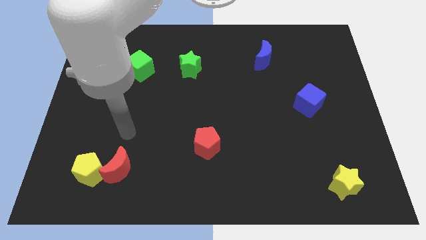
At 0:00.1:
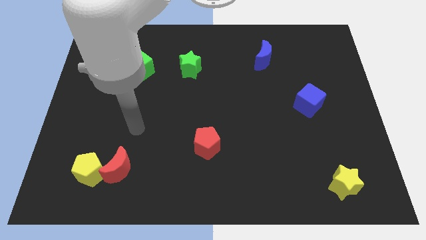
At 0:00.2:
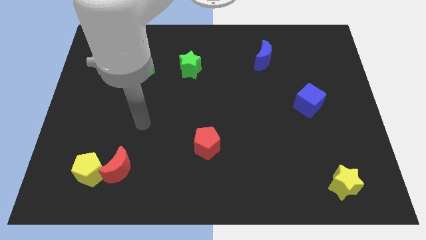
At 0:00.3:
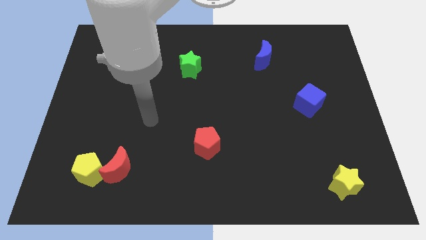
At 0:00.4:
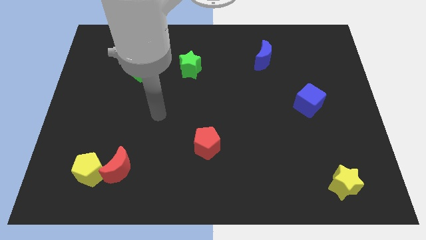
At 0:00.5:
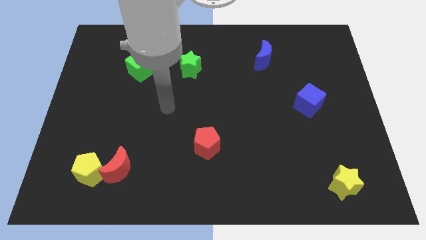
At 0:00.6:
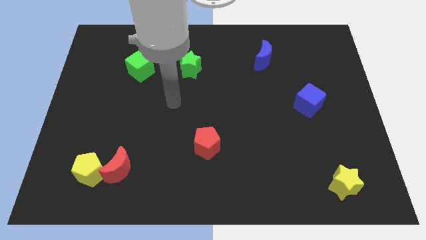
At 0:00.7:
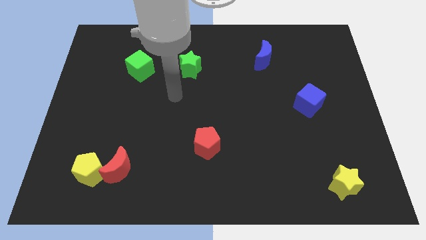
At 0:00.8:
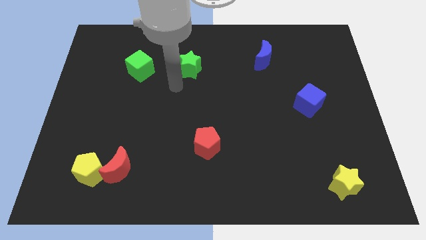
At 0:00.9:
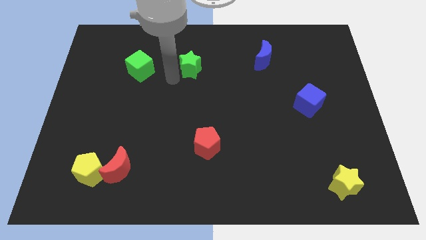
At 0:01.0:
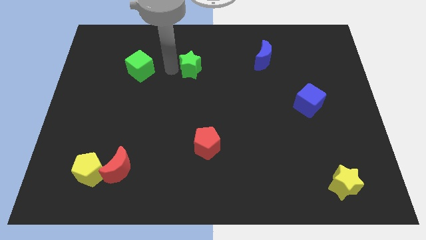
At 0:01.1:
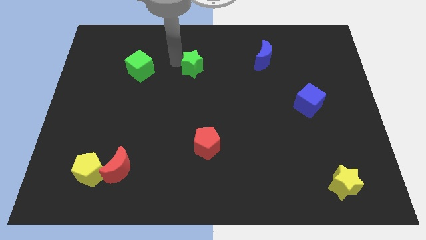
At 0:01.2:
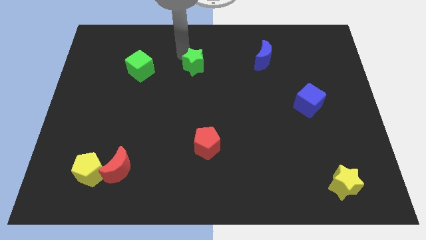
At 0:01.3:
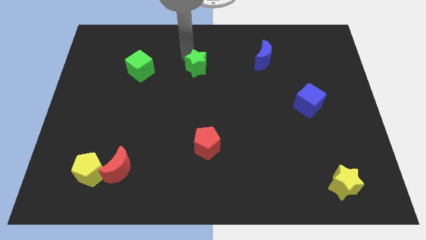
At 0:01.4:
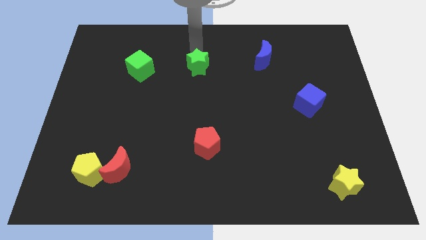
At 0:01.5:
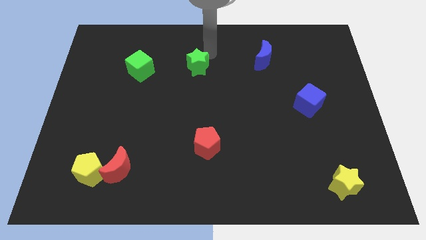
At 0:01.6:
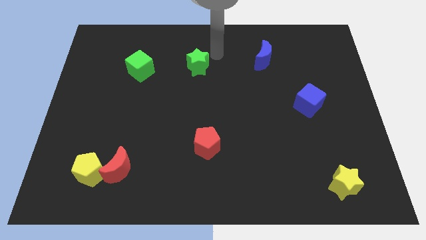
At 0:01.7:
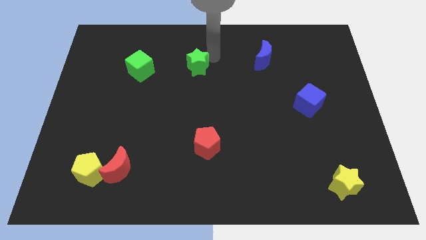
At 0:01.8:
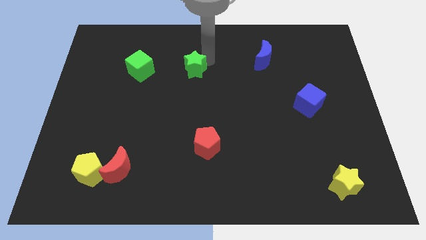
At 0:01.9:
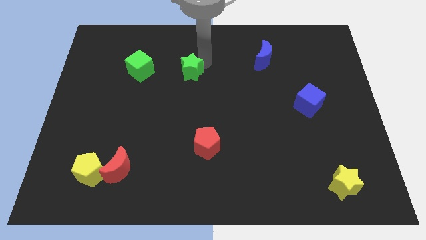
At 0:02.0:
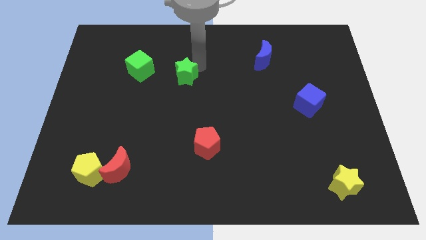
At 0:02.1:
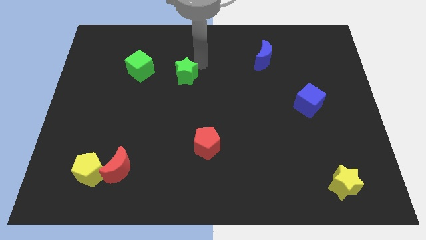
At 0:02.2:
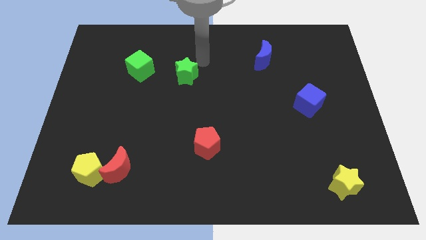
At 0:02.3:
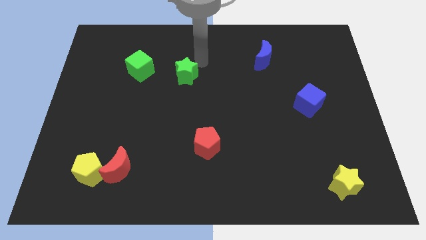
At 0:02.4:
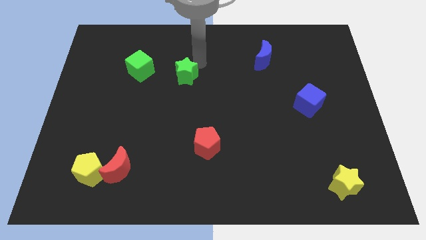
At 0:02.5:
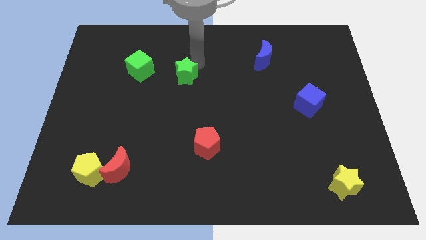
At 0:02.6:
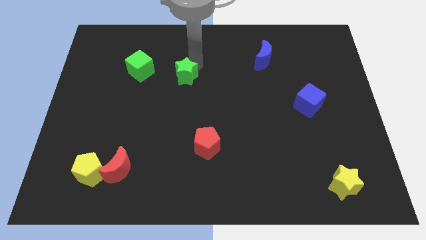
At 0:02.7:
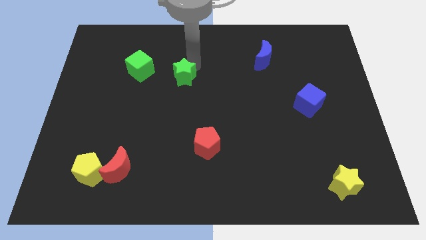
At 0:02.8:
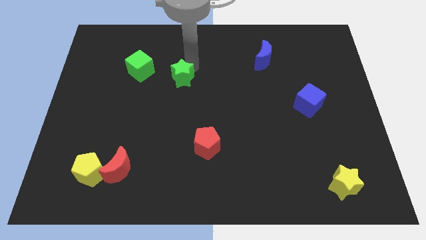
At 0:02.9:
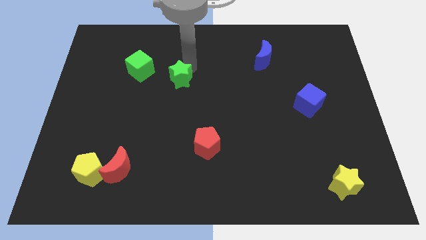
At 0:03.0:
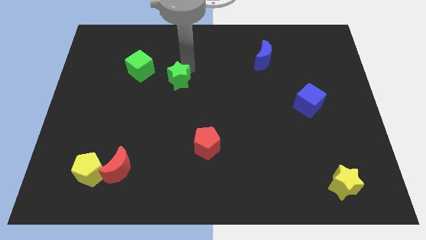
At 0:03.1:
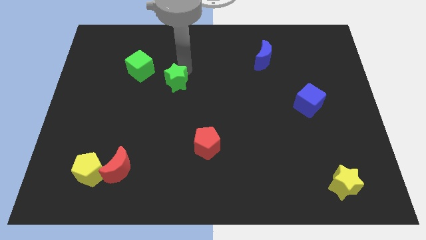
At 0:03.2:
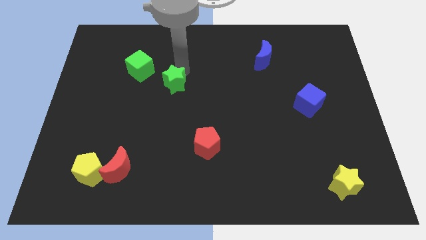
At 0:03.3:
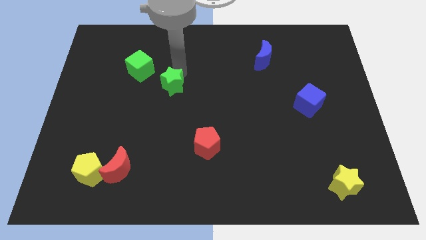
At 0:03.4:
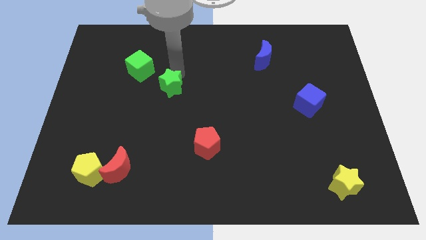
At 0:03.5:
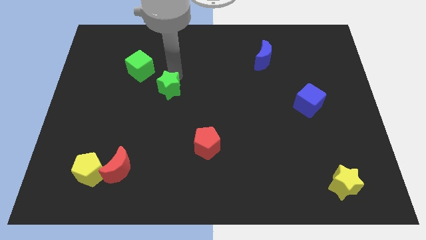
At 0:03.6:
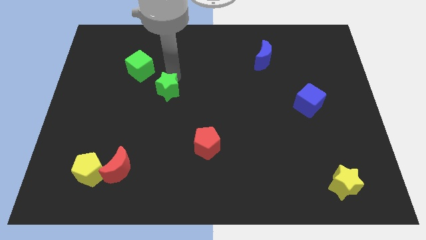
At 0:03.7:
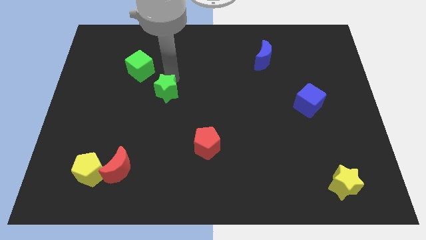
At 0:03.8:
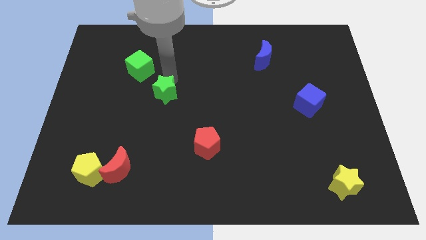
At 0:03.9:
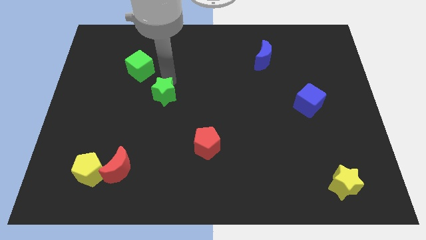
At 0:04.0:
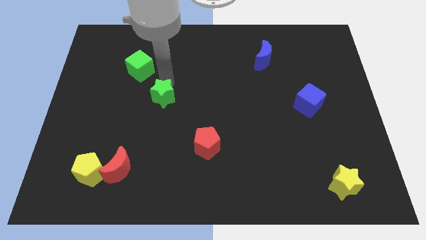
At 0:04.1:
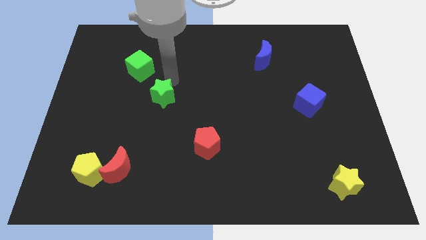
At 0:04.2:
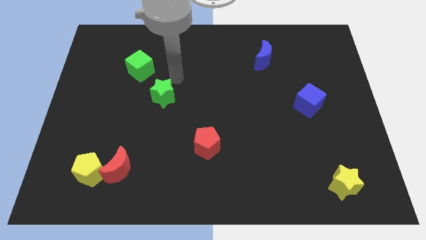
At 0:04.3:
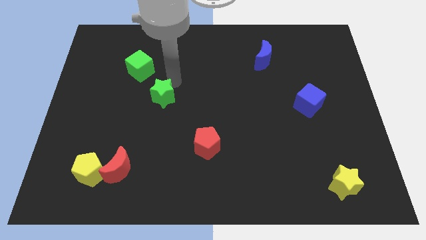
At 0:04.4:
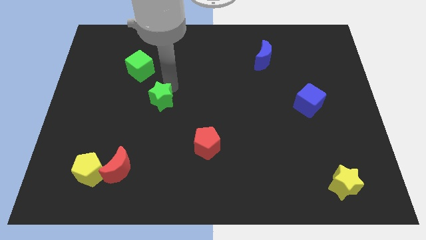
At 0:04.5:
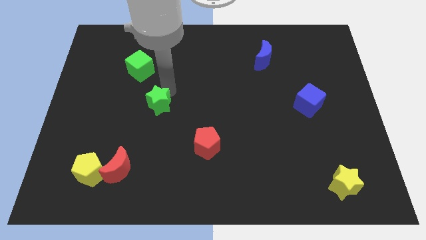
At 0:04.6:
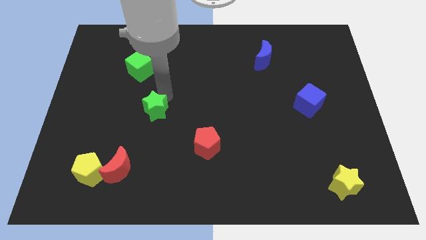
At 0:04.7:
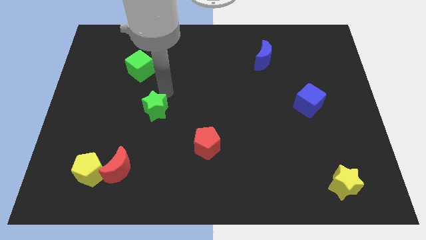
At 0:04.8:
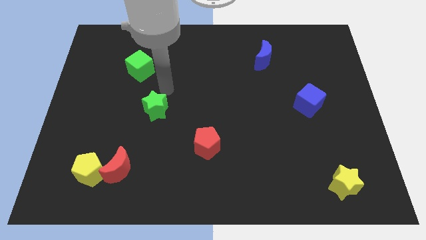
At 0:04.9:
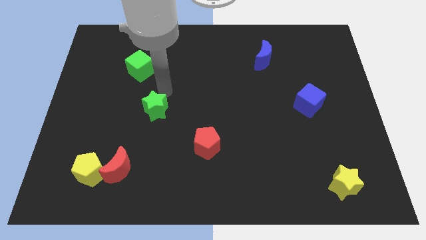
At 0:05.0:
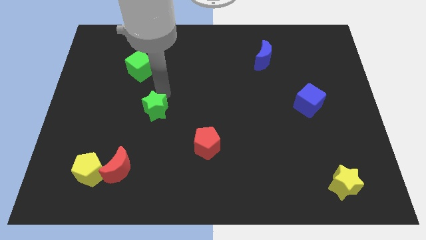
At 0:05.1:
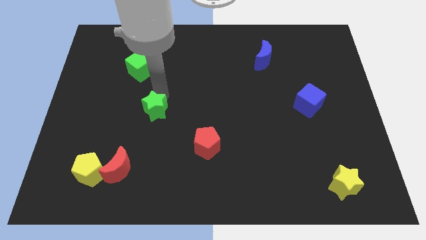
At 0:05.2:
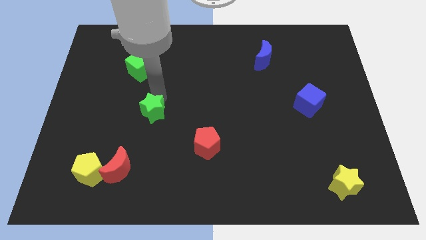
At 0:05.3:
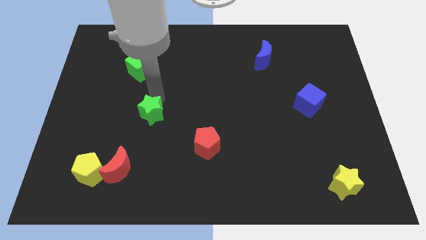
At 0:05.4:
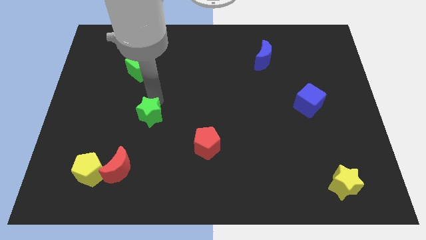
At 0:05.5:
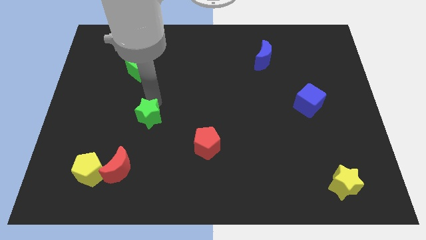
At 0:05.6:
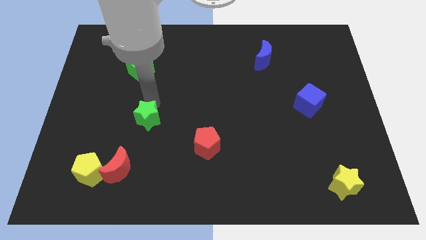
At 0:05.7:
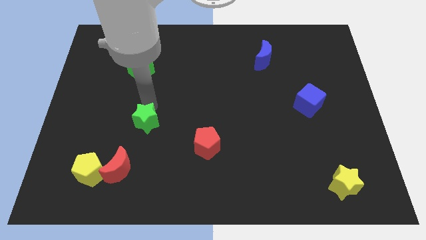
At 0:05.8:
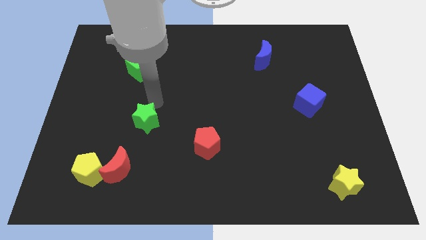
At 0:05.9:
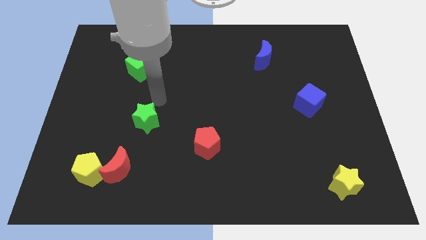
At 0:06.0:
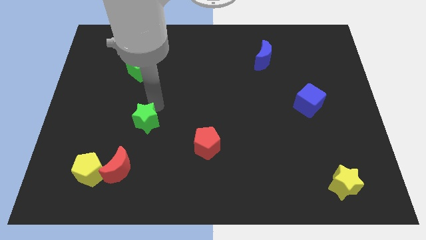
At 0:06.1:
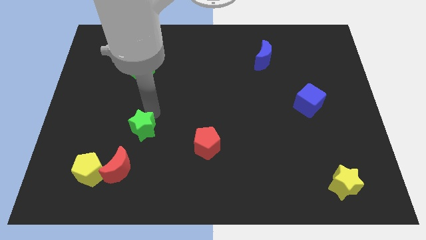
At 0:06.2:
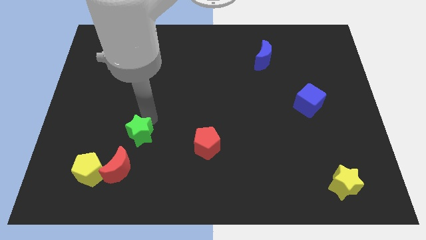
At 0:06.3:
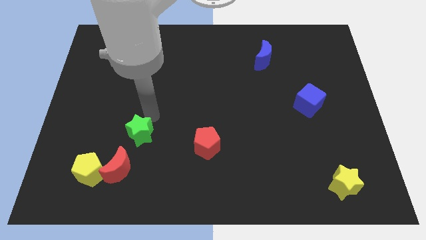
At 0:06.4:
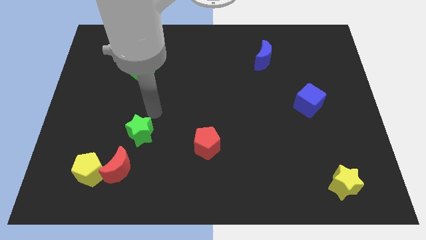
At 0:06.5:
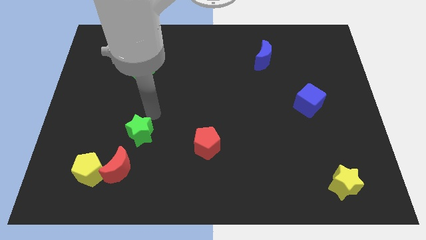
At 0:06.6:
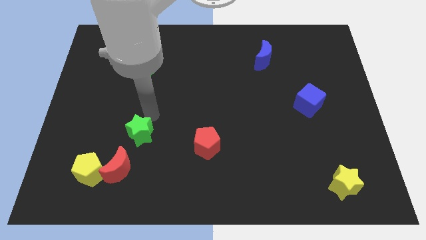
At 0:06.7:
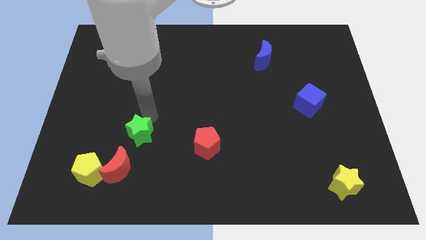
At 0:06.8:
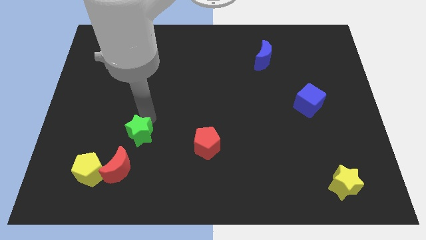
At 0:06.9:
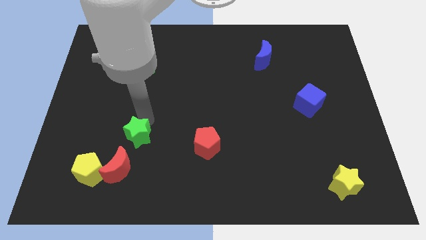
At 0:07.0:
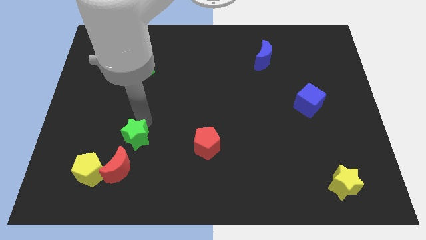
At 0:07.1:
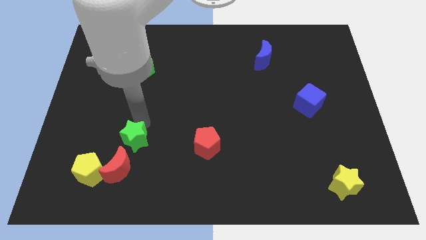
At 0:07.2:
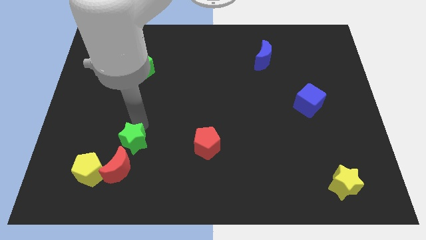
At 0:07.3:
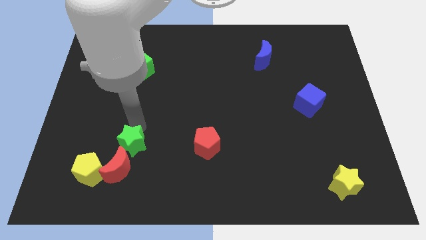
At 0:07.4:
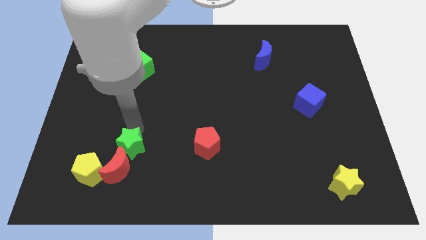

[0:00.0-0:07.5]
put the green star towards the red moon
